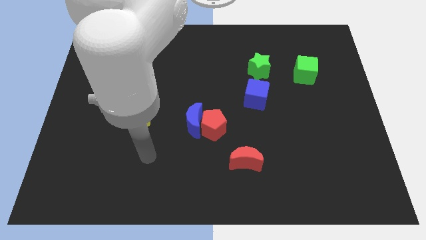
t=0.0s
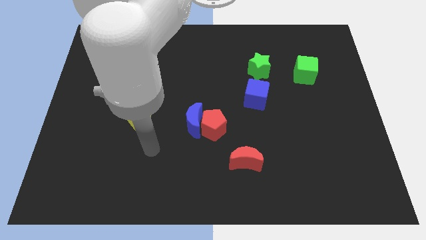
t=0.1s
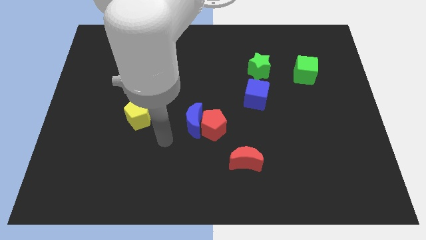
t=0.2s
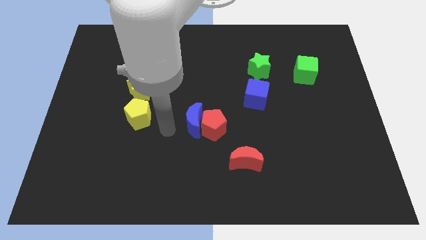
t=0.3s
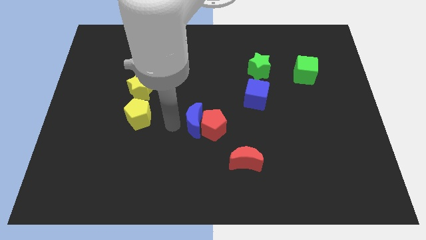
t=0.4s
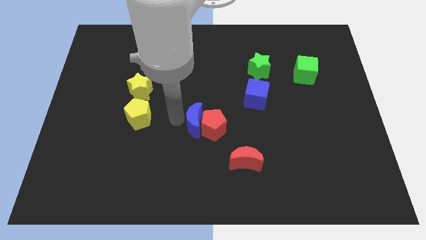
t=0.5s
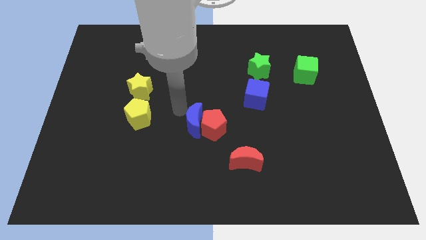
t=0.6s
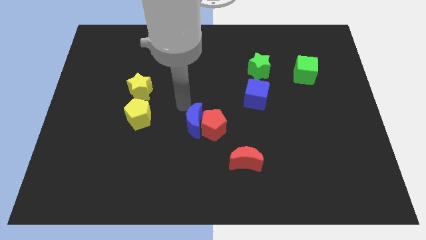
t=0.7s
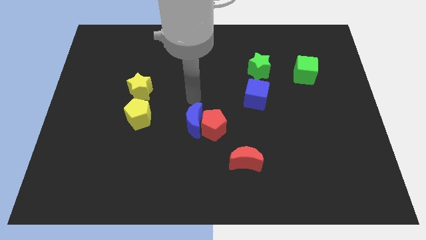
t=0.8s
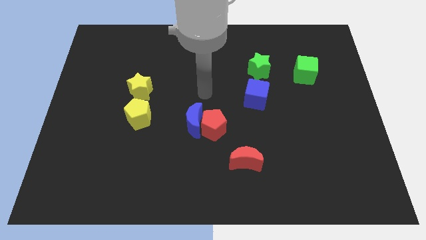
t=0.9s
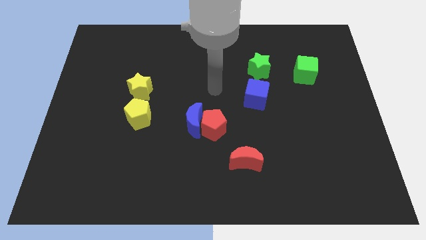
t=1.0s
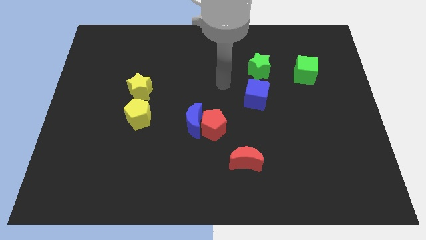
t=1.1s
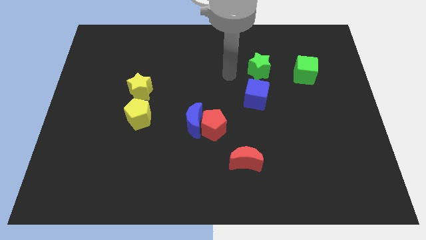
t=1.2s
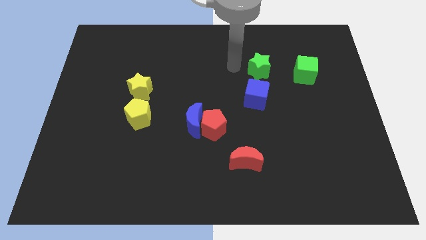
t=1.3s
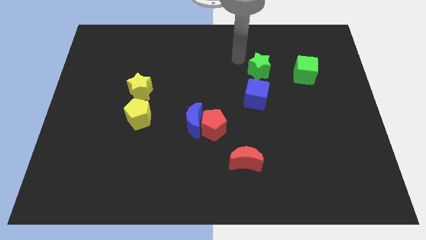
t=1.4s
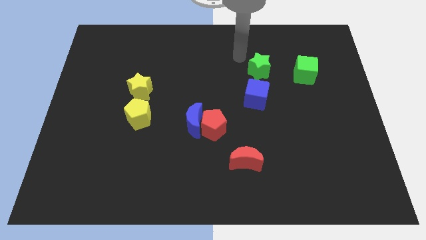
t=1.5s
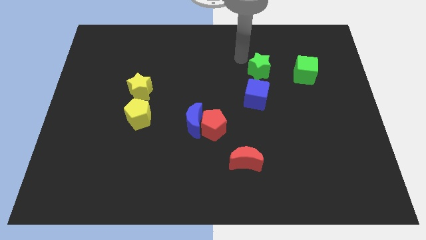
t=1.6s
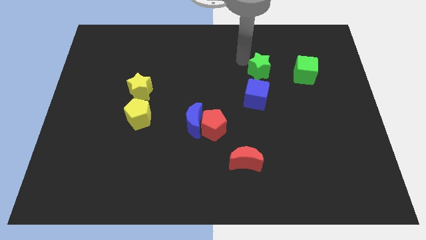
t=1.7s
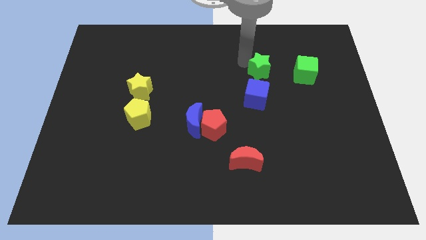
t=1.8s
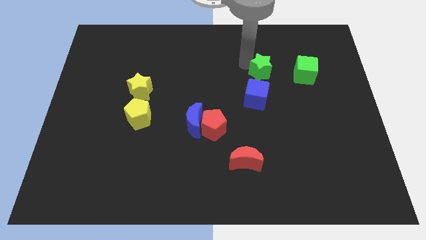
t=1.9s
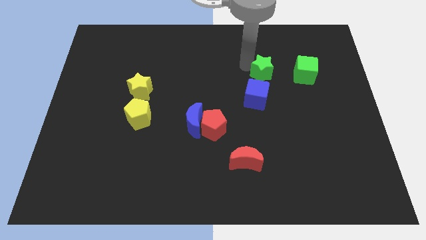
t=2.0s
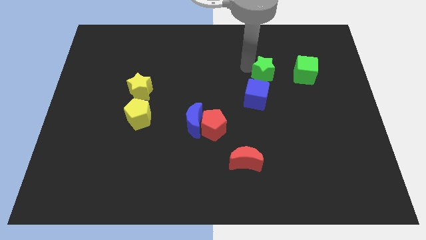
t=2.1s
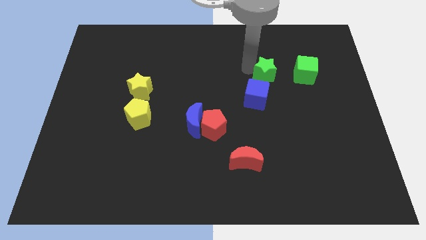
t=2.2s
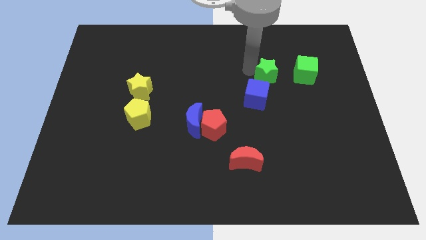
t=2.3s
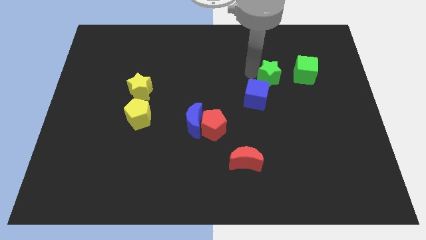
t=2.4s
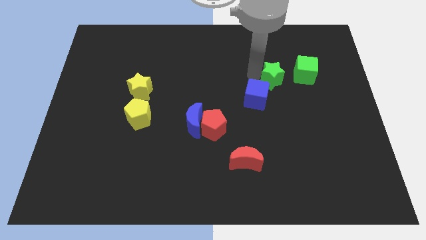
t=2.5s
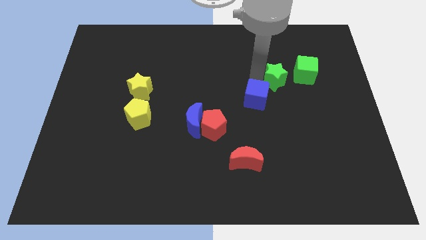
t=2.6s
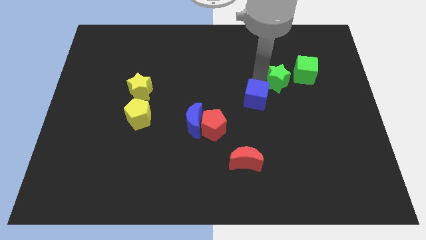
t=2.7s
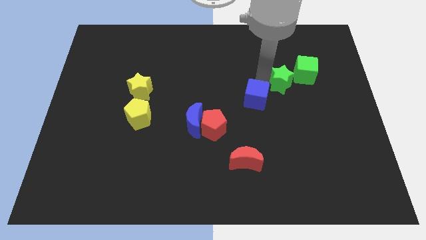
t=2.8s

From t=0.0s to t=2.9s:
slightly move the green star diagonally down and to the right

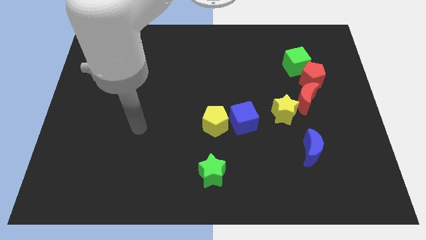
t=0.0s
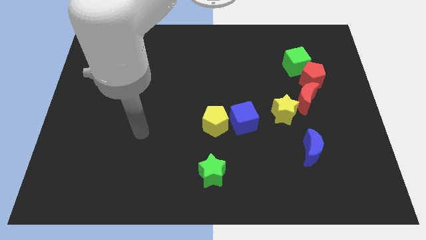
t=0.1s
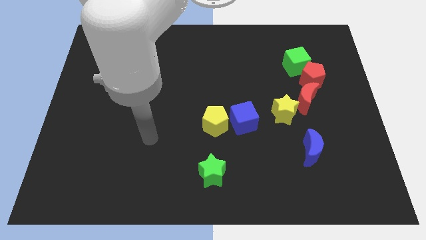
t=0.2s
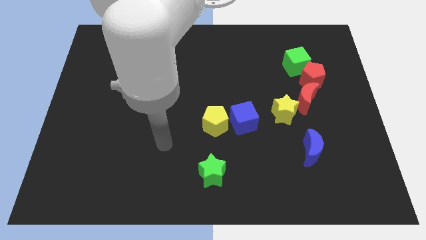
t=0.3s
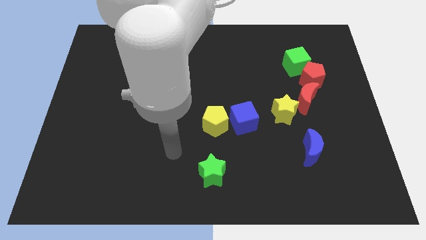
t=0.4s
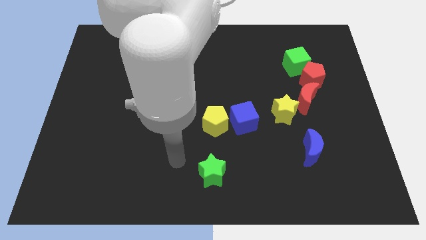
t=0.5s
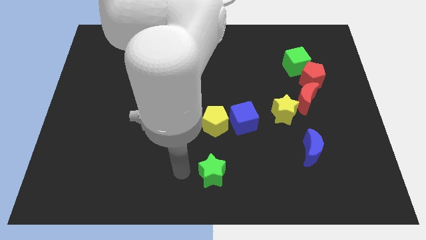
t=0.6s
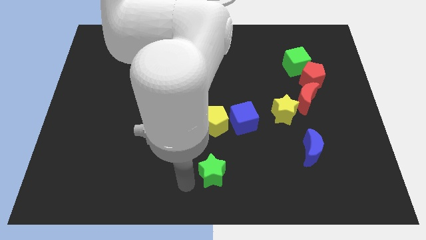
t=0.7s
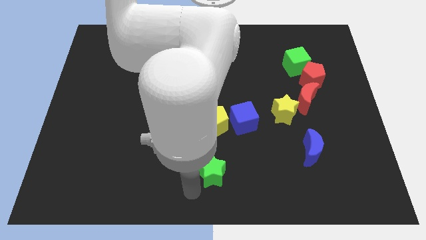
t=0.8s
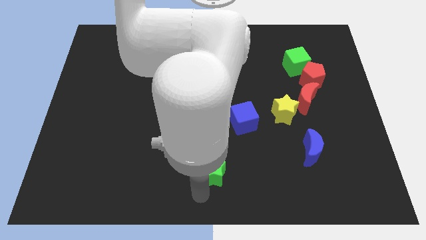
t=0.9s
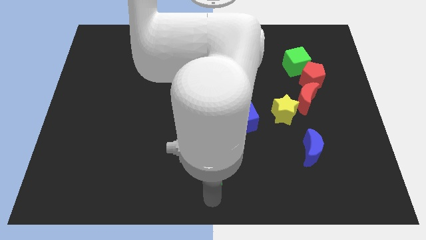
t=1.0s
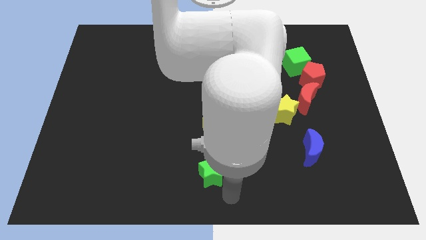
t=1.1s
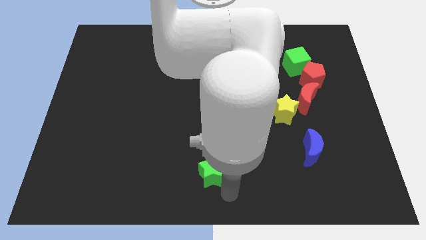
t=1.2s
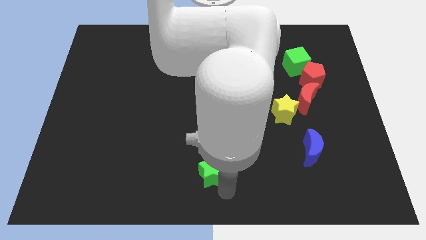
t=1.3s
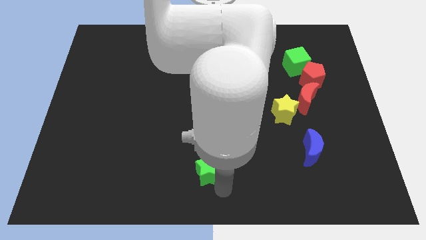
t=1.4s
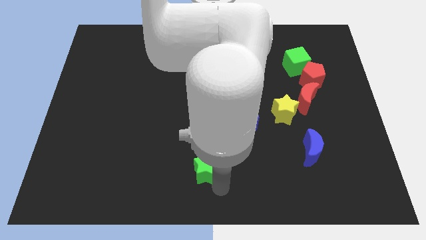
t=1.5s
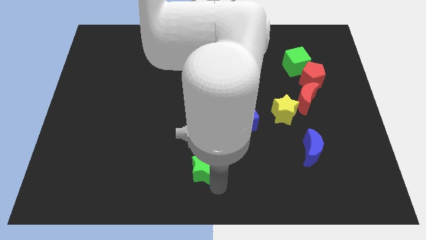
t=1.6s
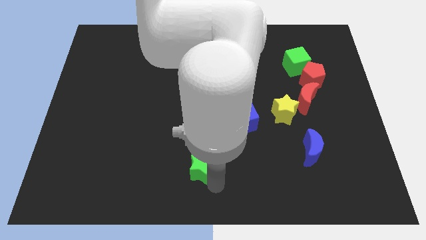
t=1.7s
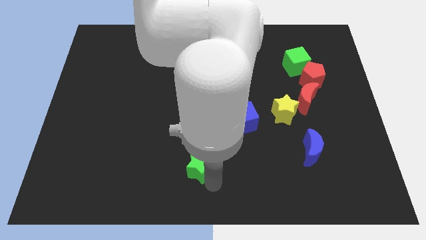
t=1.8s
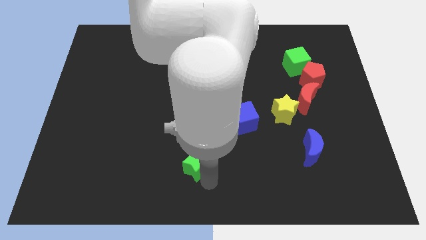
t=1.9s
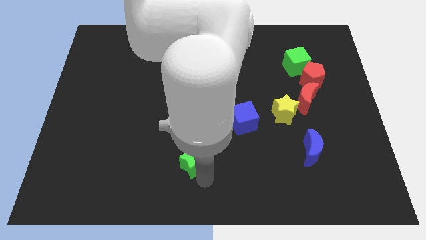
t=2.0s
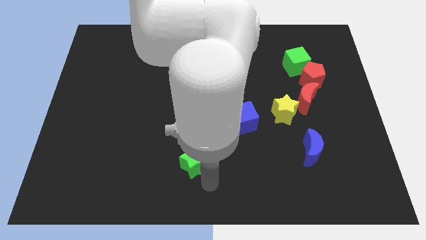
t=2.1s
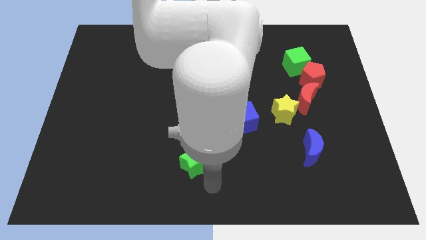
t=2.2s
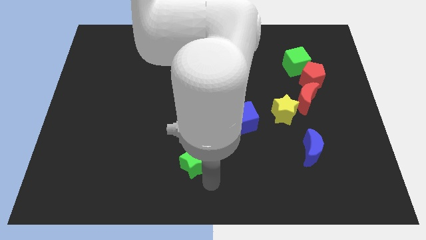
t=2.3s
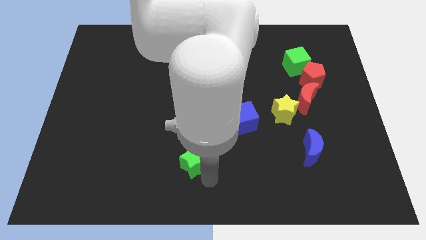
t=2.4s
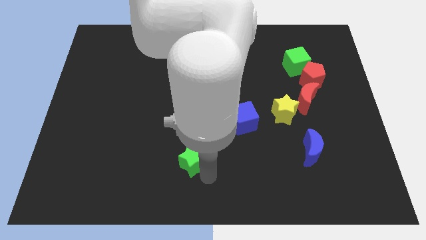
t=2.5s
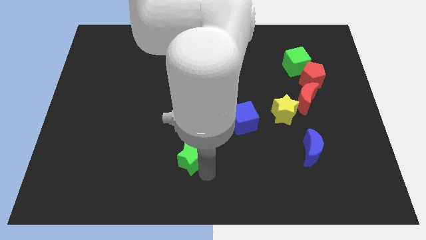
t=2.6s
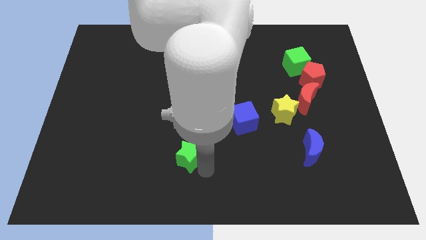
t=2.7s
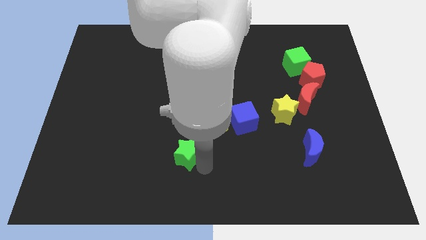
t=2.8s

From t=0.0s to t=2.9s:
push the green star up and left diagonally a bit

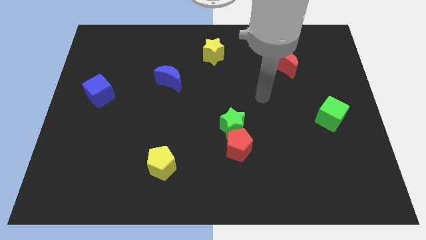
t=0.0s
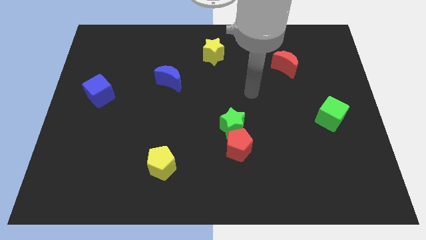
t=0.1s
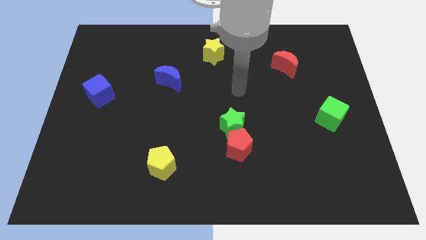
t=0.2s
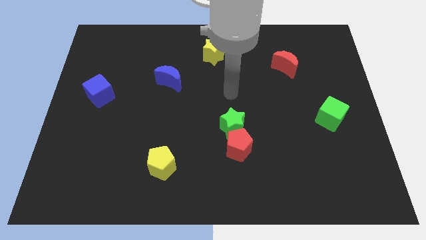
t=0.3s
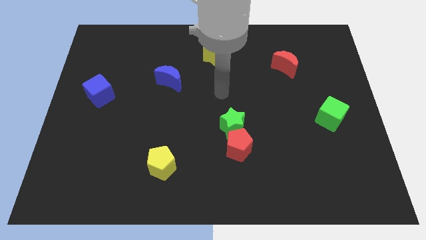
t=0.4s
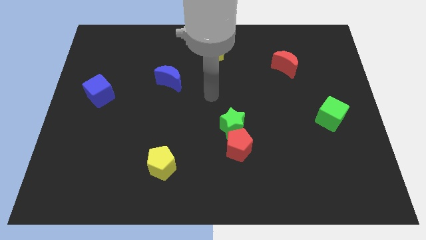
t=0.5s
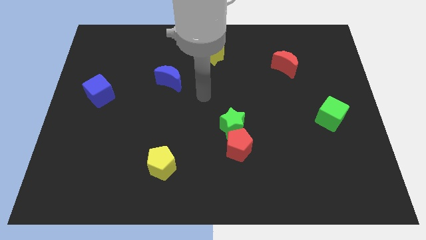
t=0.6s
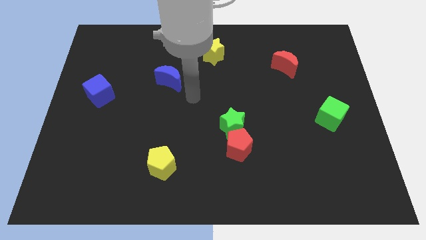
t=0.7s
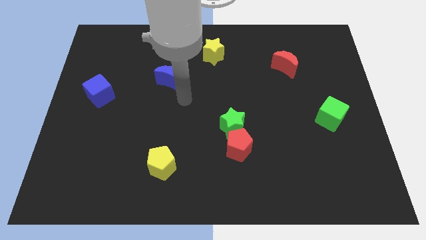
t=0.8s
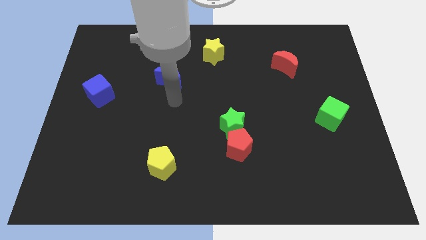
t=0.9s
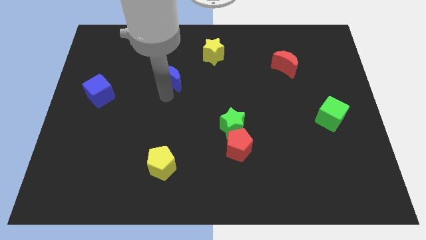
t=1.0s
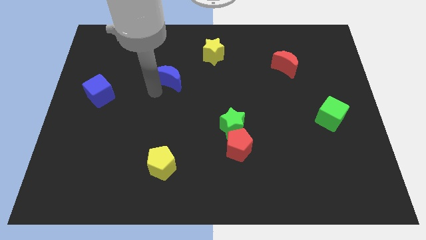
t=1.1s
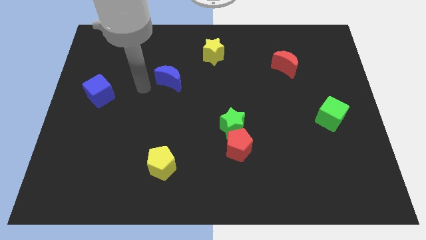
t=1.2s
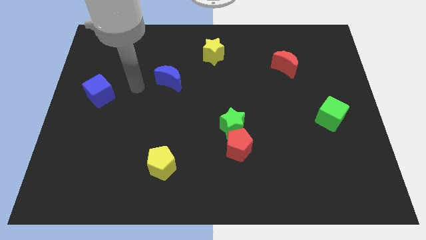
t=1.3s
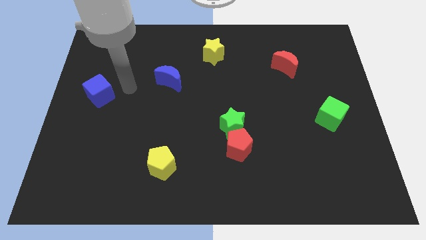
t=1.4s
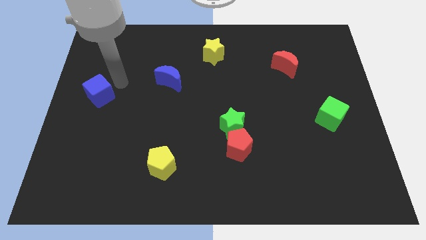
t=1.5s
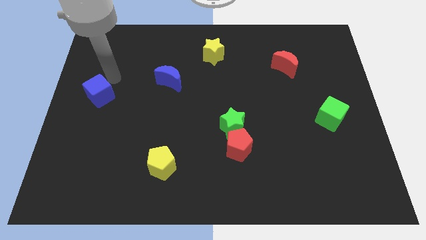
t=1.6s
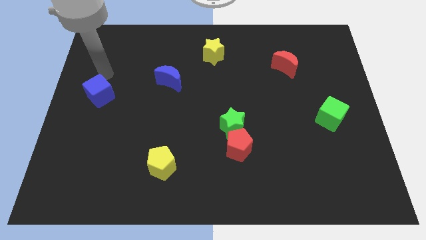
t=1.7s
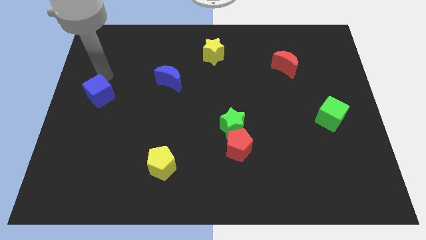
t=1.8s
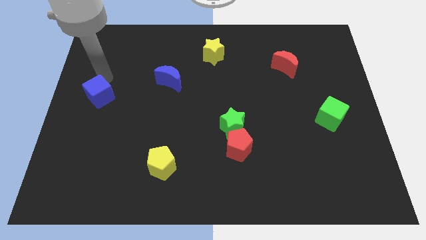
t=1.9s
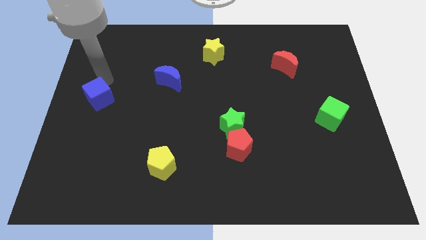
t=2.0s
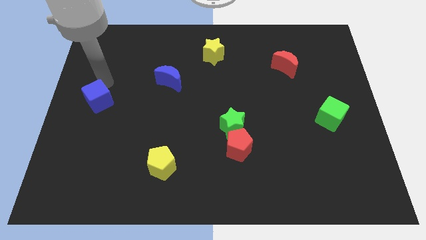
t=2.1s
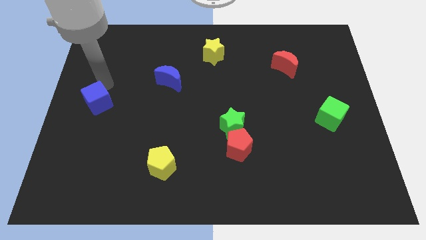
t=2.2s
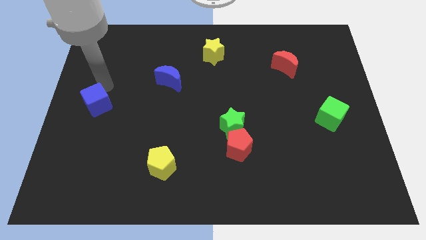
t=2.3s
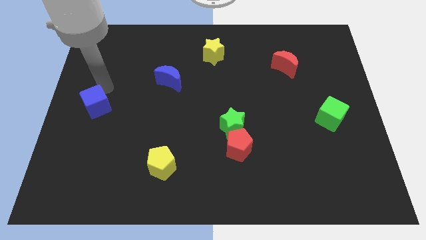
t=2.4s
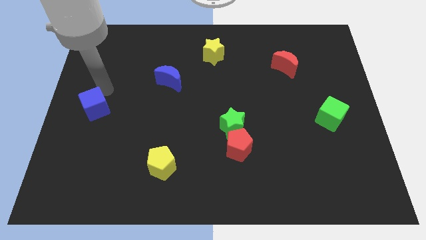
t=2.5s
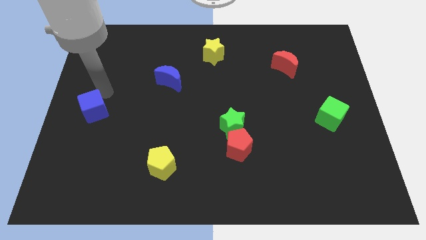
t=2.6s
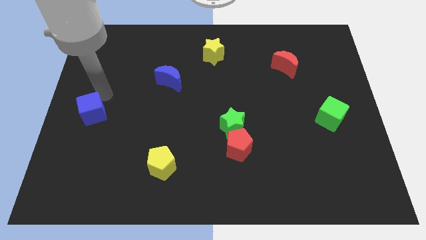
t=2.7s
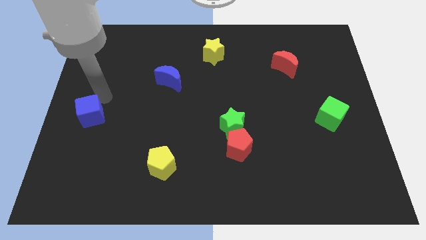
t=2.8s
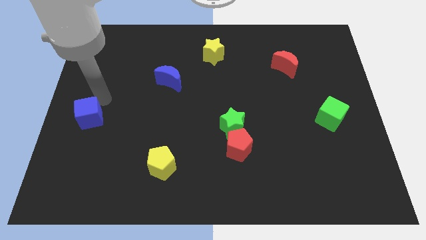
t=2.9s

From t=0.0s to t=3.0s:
move the blue cube a little bit down
